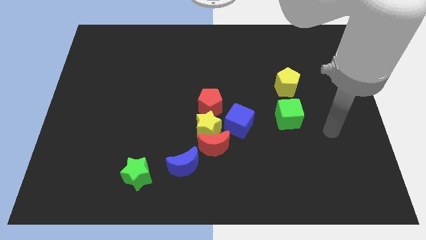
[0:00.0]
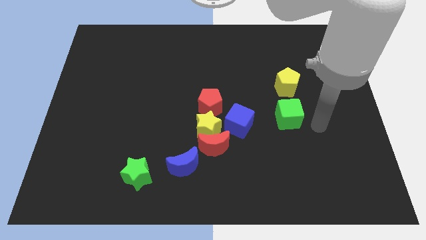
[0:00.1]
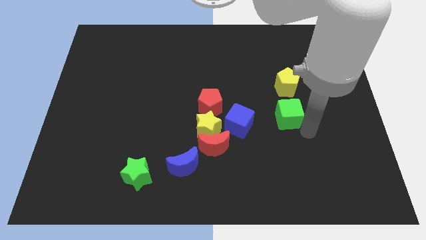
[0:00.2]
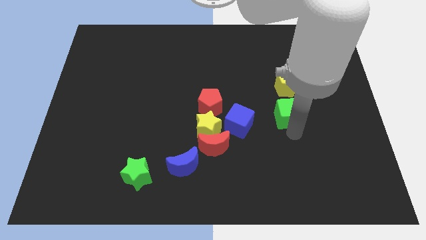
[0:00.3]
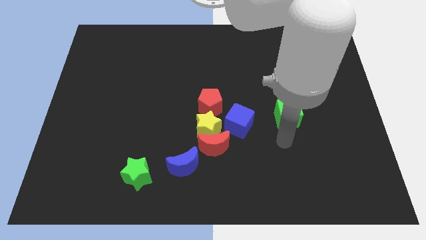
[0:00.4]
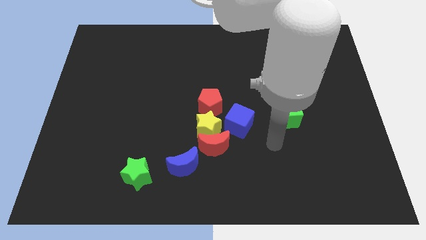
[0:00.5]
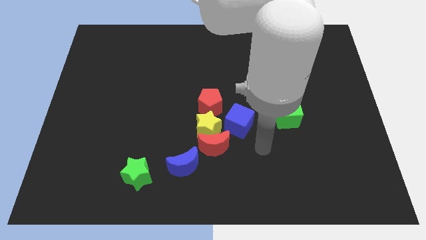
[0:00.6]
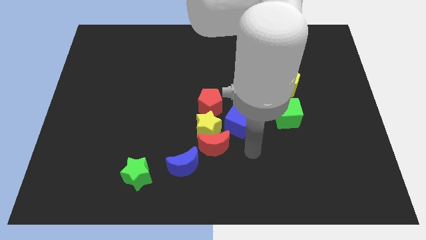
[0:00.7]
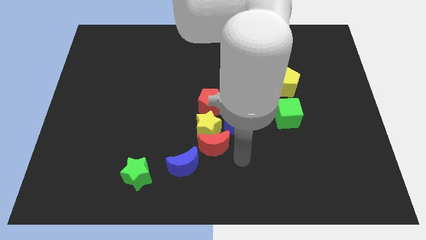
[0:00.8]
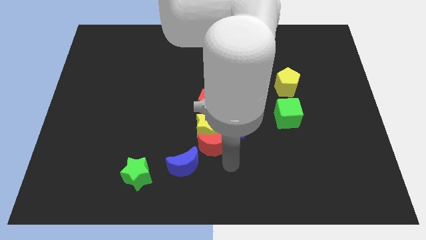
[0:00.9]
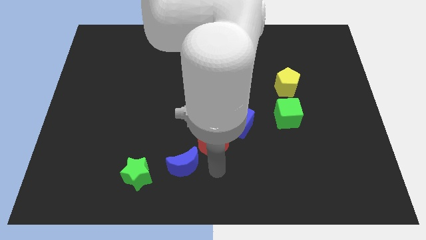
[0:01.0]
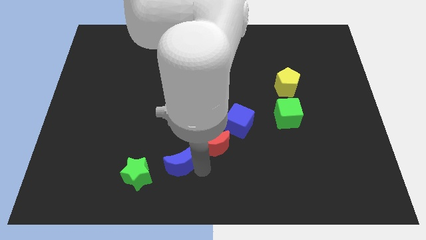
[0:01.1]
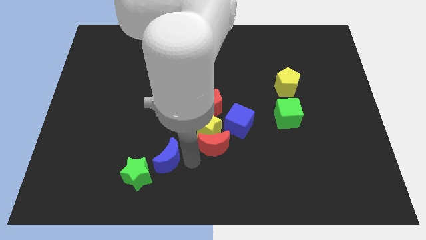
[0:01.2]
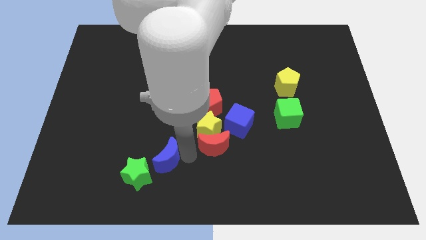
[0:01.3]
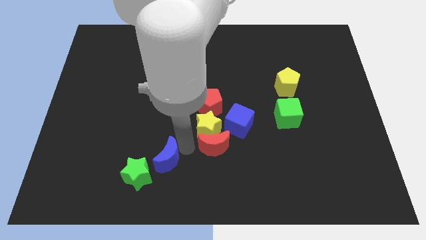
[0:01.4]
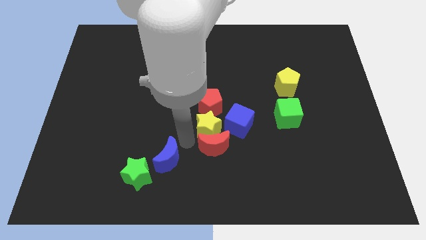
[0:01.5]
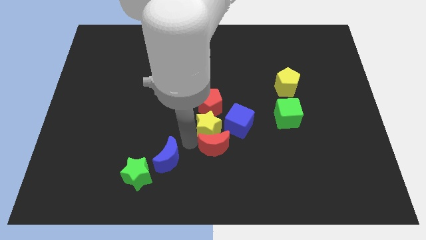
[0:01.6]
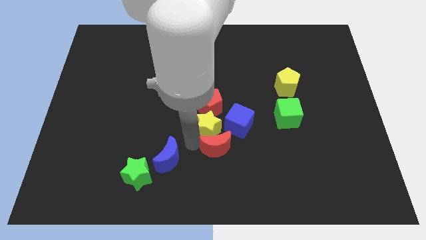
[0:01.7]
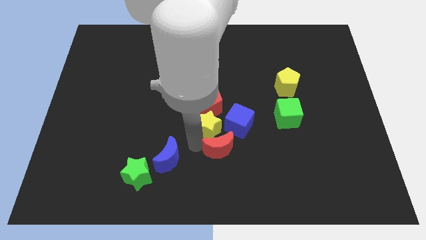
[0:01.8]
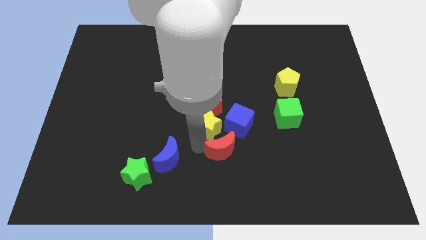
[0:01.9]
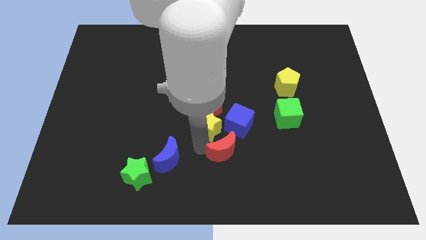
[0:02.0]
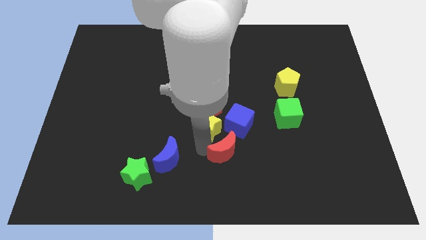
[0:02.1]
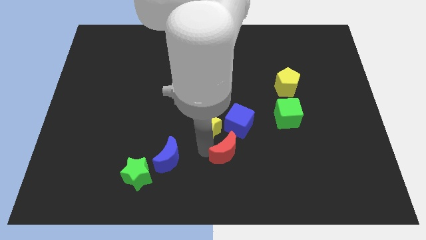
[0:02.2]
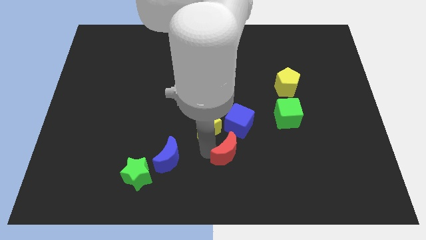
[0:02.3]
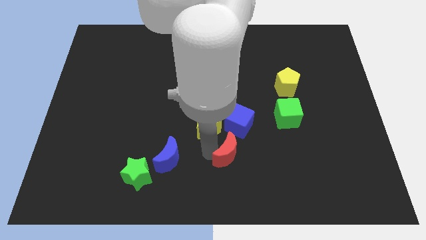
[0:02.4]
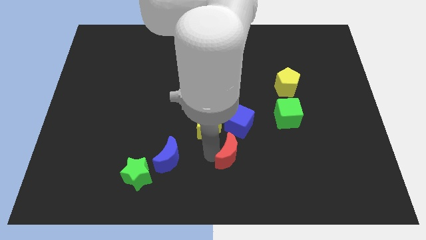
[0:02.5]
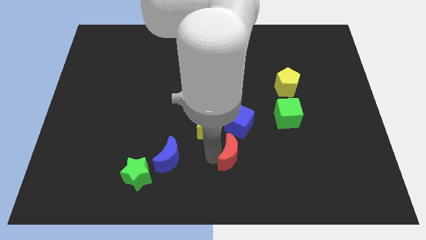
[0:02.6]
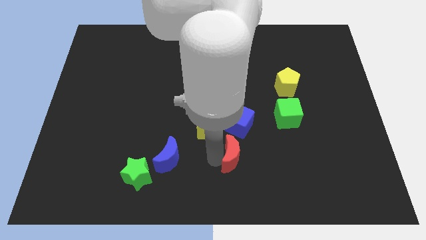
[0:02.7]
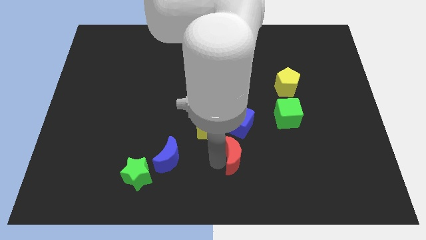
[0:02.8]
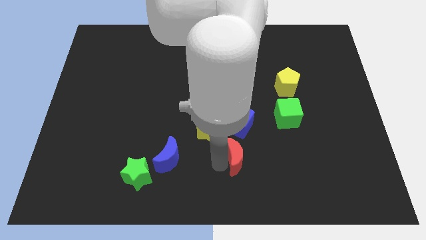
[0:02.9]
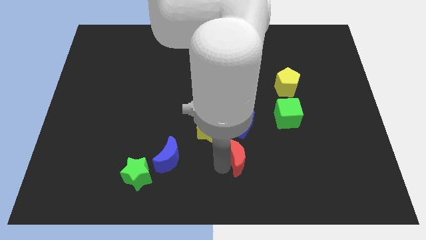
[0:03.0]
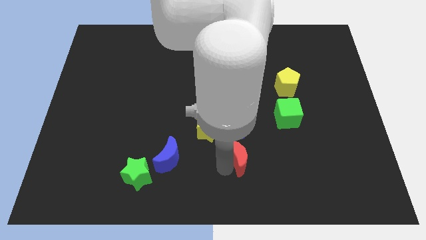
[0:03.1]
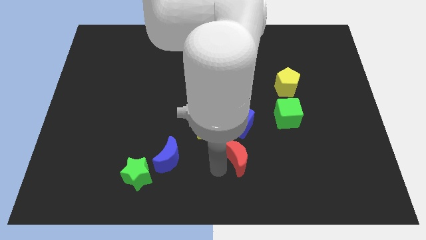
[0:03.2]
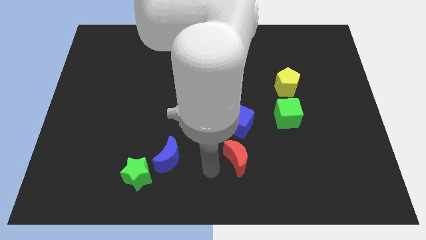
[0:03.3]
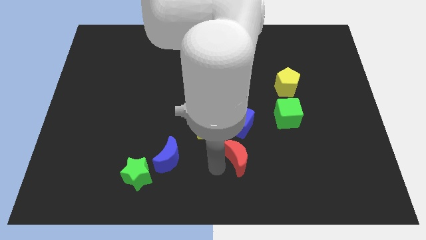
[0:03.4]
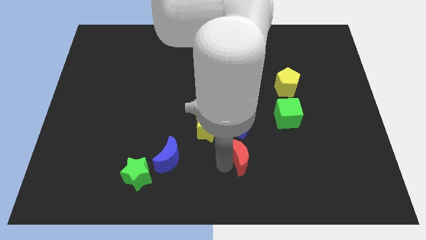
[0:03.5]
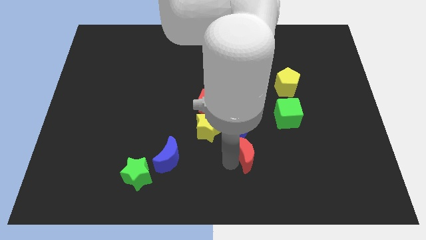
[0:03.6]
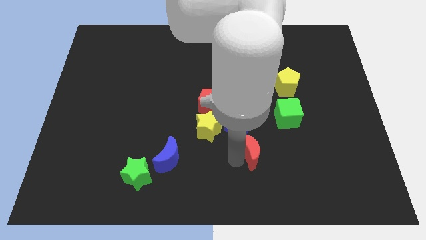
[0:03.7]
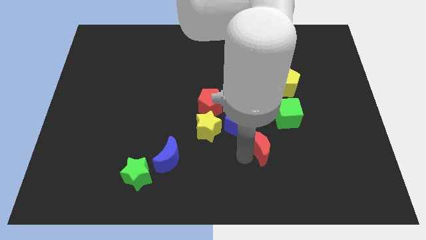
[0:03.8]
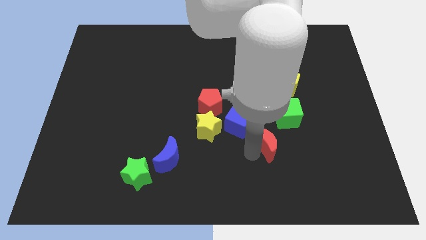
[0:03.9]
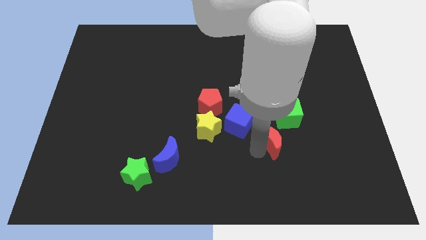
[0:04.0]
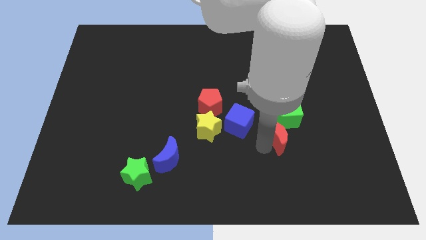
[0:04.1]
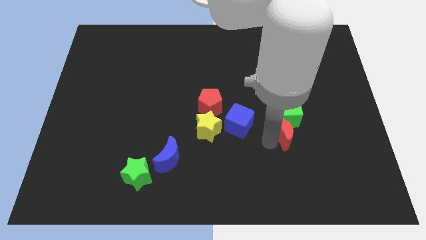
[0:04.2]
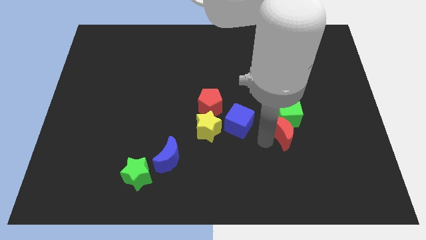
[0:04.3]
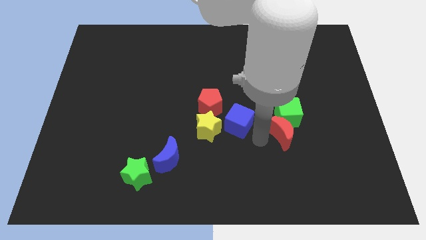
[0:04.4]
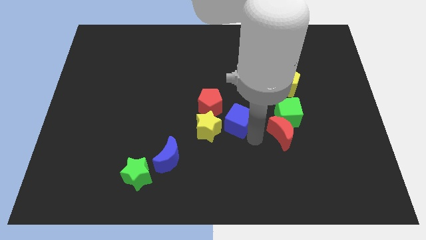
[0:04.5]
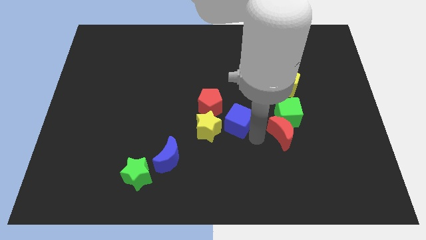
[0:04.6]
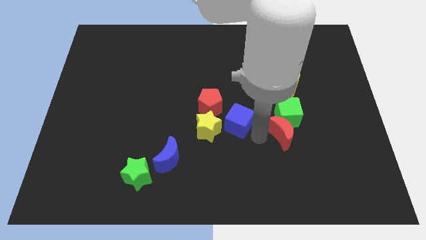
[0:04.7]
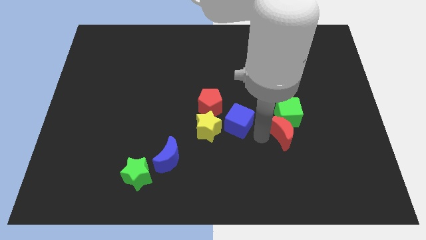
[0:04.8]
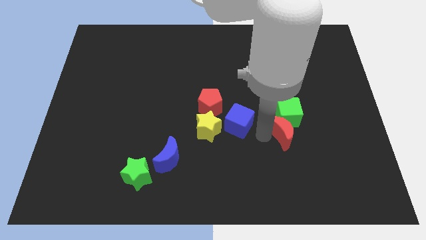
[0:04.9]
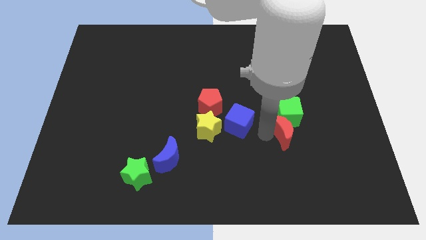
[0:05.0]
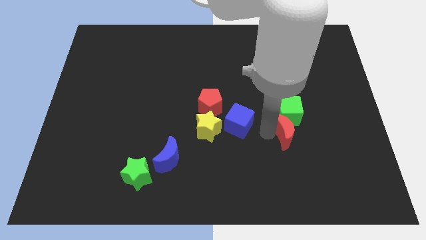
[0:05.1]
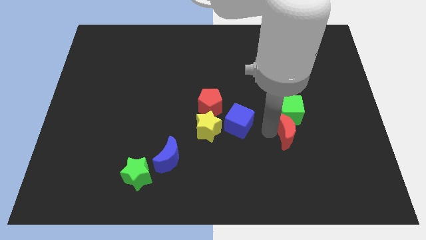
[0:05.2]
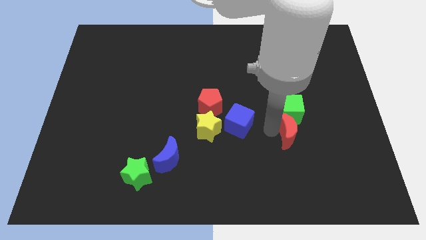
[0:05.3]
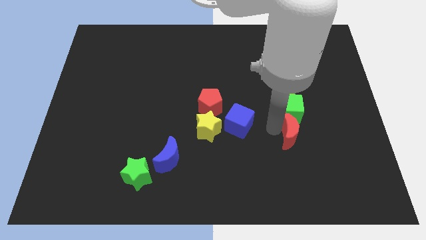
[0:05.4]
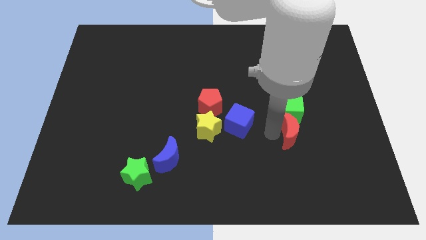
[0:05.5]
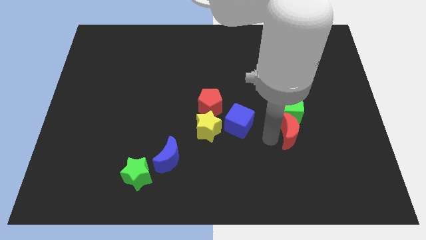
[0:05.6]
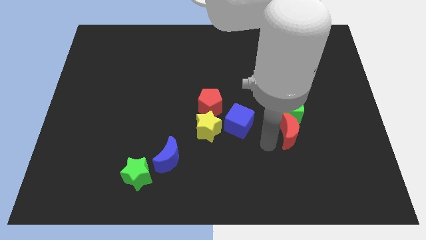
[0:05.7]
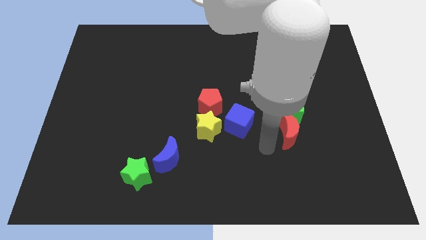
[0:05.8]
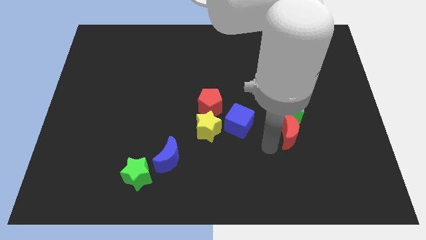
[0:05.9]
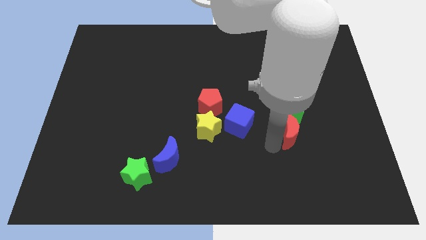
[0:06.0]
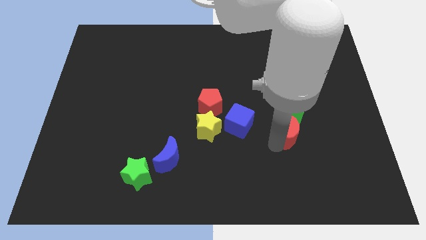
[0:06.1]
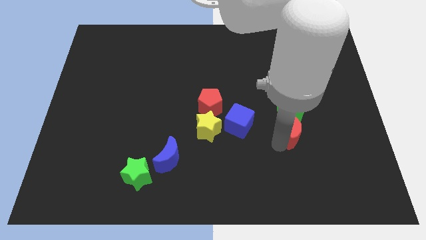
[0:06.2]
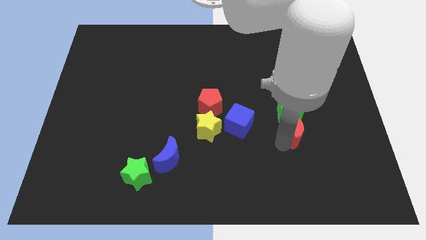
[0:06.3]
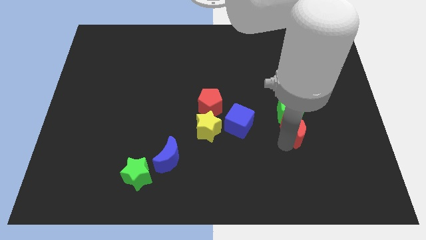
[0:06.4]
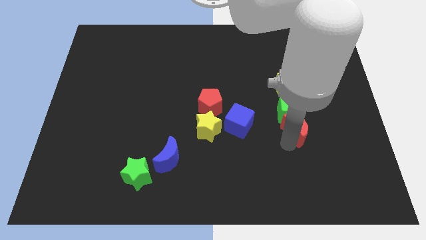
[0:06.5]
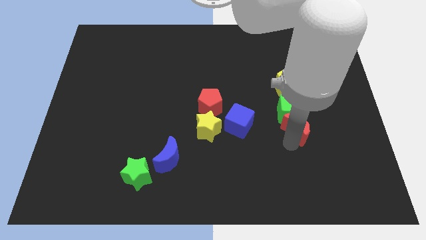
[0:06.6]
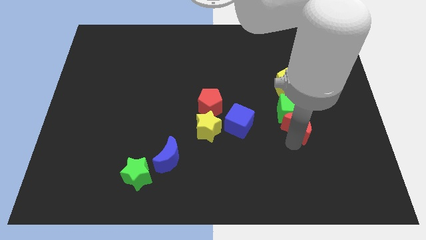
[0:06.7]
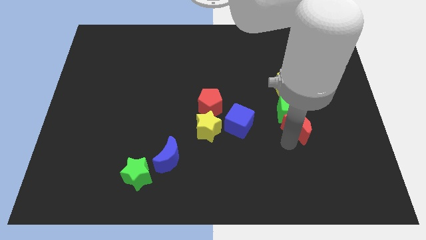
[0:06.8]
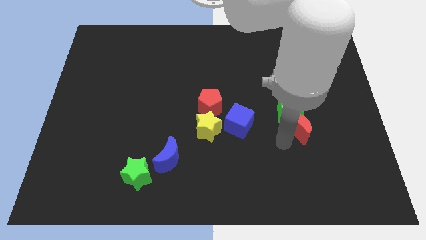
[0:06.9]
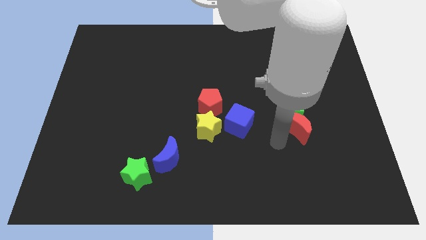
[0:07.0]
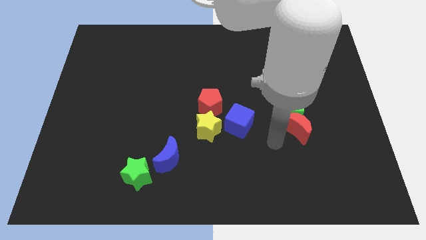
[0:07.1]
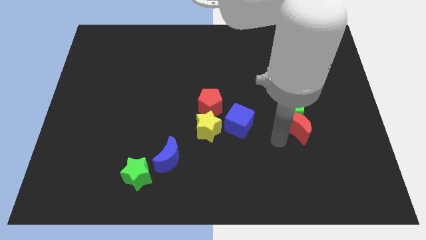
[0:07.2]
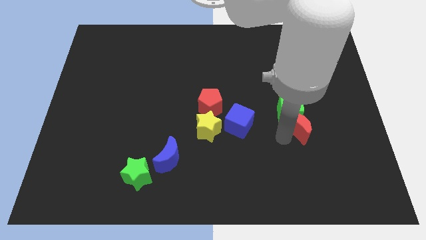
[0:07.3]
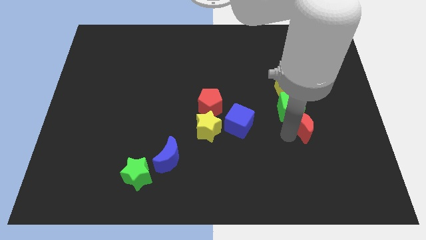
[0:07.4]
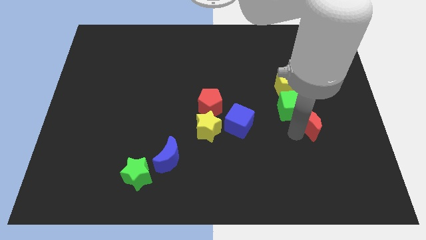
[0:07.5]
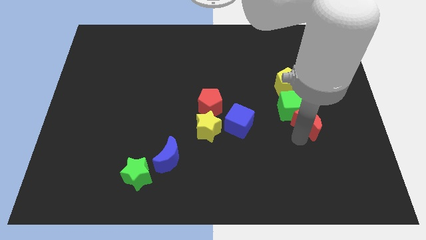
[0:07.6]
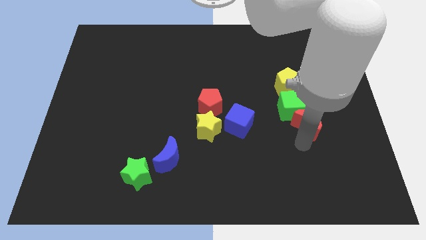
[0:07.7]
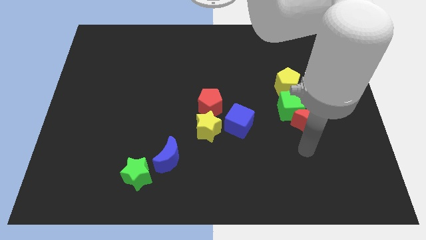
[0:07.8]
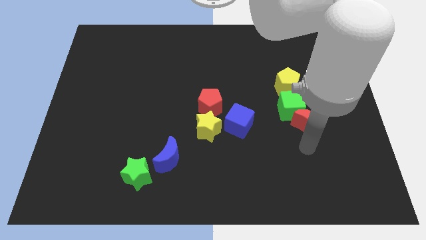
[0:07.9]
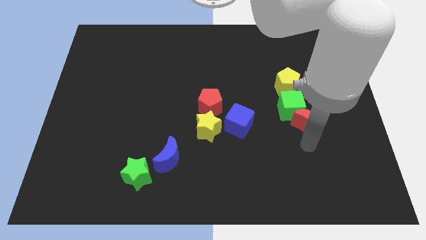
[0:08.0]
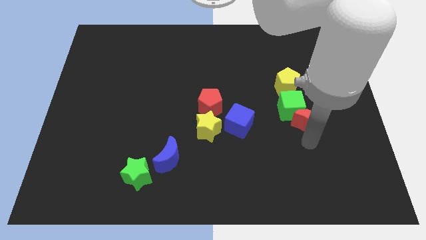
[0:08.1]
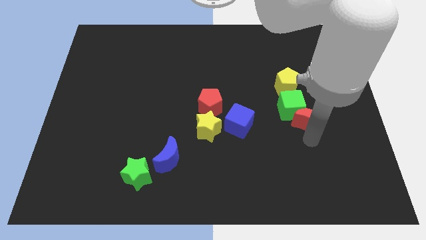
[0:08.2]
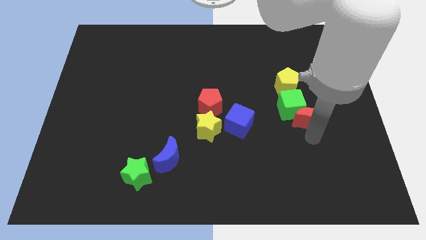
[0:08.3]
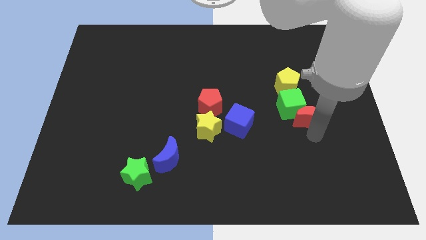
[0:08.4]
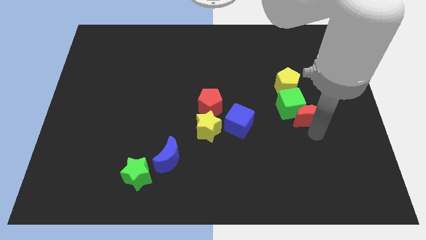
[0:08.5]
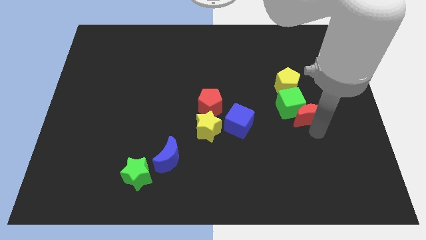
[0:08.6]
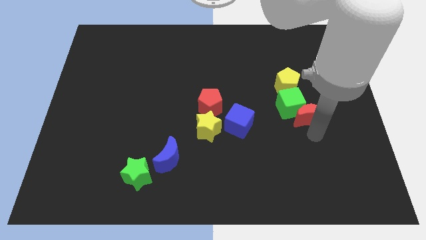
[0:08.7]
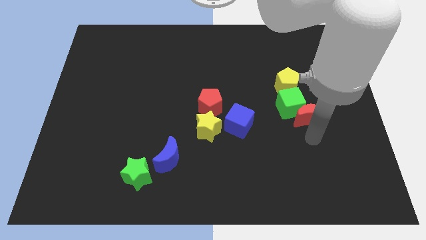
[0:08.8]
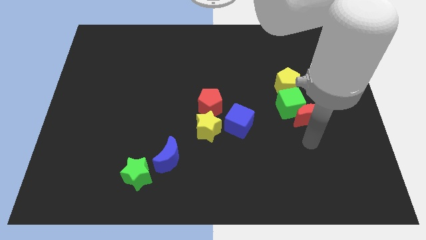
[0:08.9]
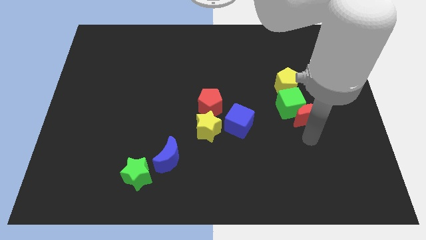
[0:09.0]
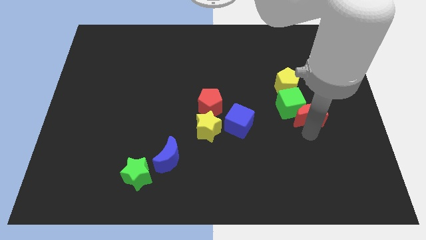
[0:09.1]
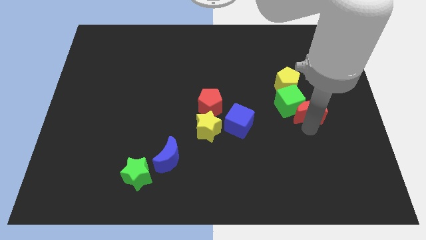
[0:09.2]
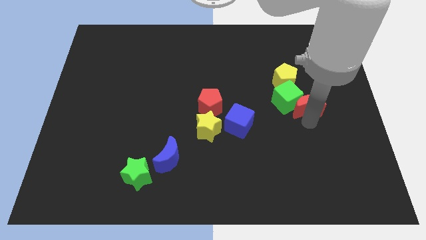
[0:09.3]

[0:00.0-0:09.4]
push the red moon up and then to the right
